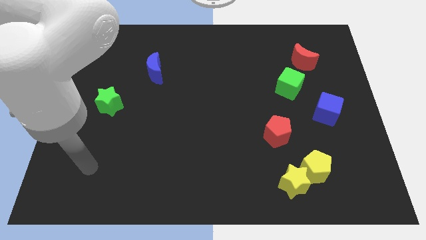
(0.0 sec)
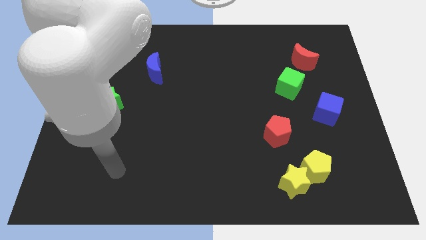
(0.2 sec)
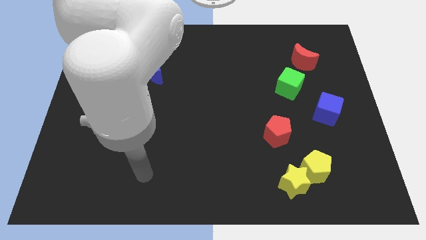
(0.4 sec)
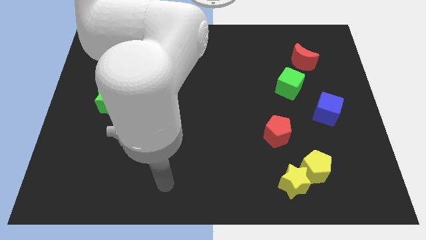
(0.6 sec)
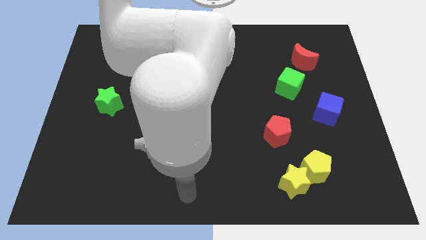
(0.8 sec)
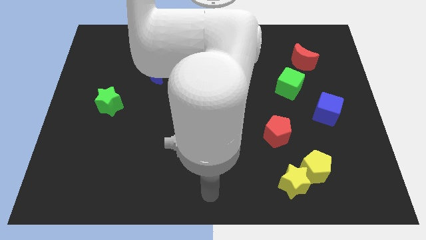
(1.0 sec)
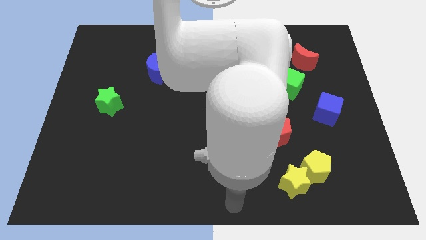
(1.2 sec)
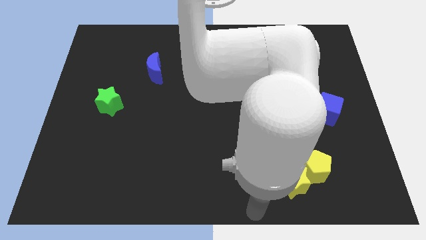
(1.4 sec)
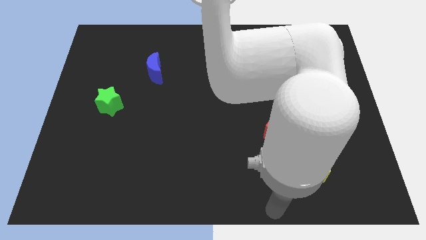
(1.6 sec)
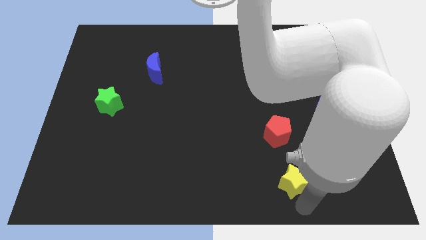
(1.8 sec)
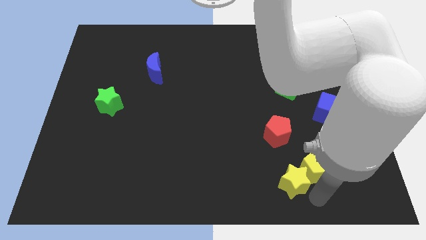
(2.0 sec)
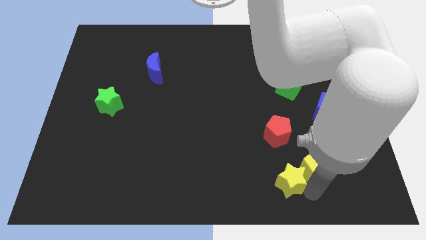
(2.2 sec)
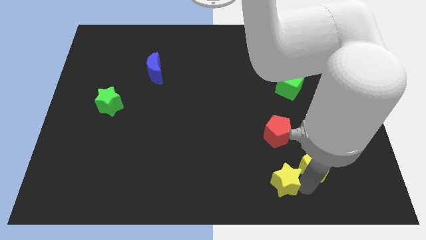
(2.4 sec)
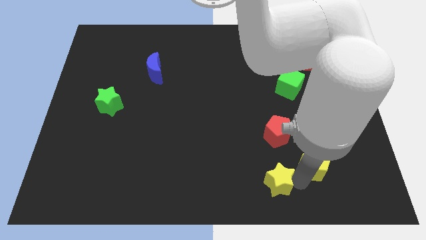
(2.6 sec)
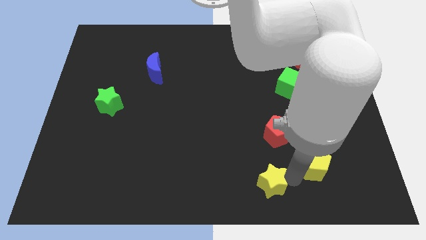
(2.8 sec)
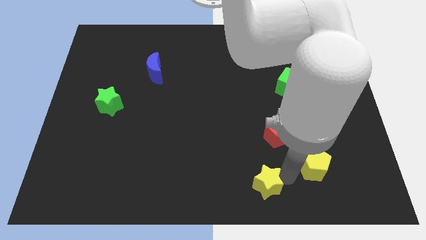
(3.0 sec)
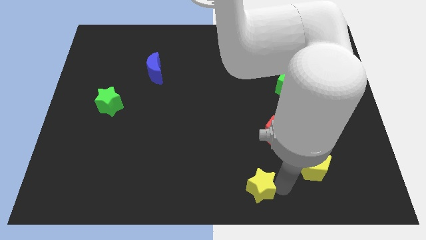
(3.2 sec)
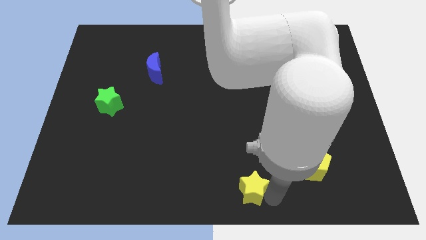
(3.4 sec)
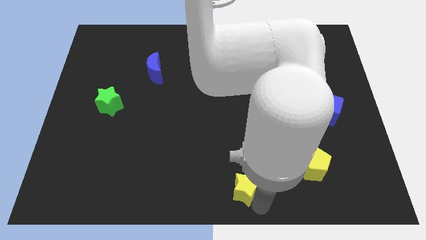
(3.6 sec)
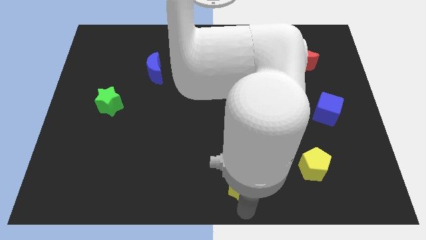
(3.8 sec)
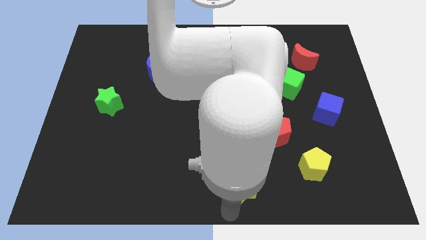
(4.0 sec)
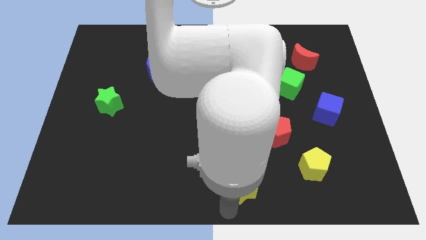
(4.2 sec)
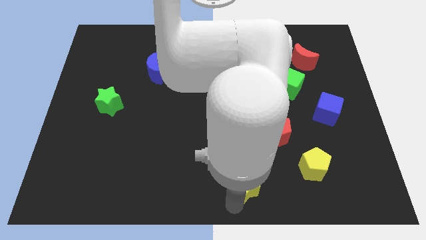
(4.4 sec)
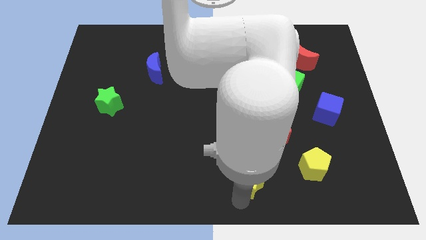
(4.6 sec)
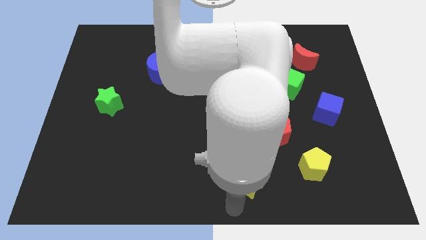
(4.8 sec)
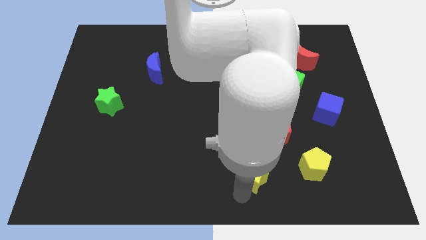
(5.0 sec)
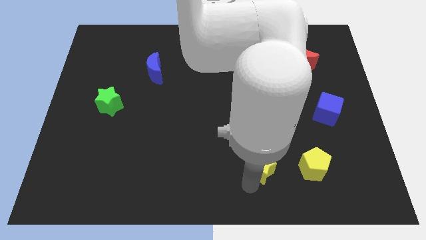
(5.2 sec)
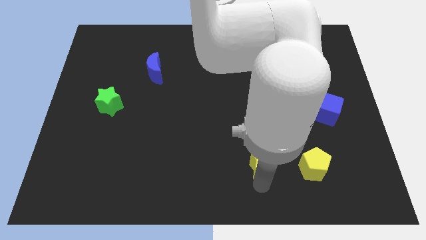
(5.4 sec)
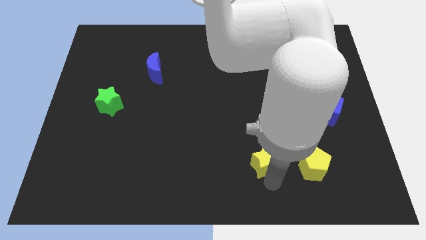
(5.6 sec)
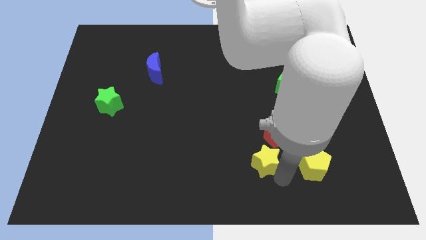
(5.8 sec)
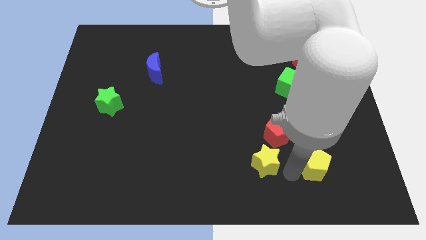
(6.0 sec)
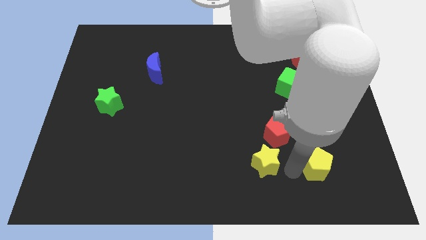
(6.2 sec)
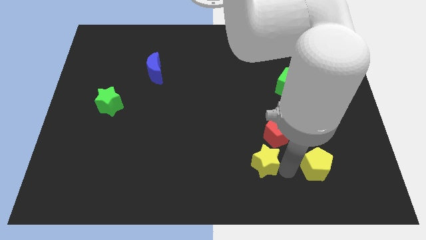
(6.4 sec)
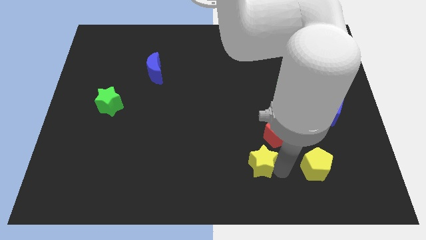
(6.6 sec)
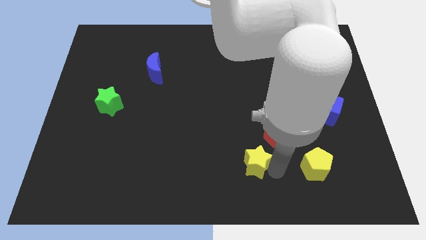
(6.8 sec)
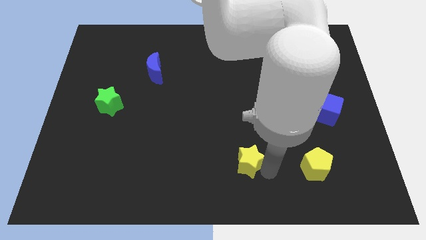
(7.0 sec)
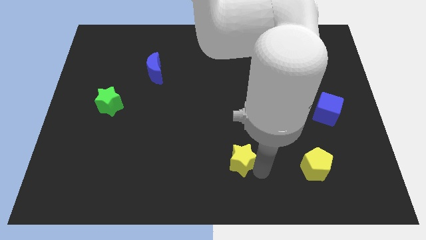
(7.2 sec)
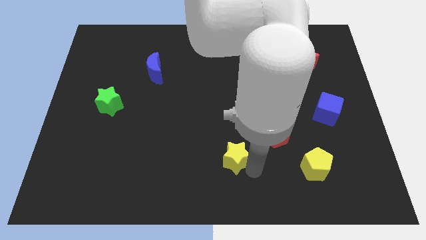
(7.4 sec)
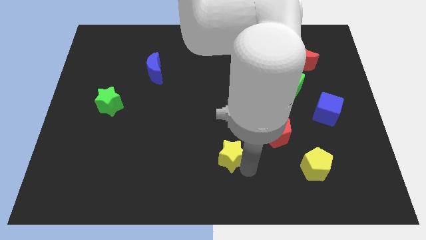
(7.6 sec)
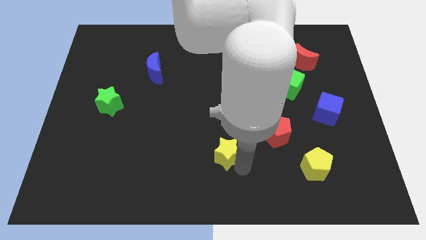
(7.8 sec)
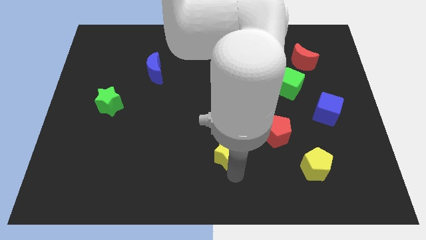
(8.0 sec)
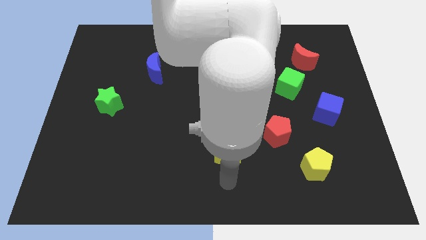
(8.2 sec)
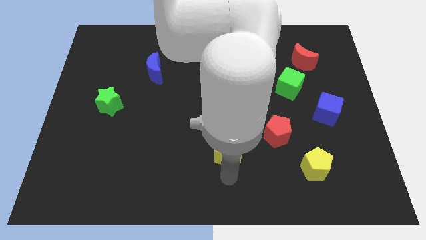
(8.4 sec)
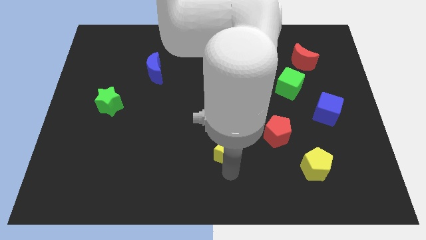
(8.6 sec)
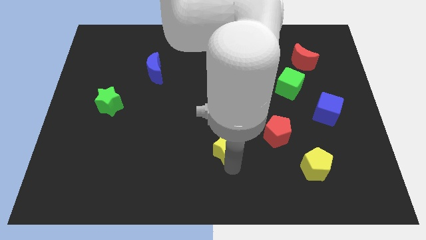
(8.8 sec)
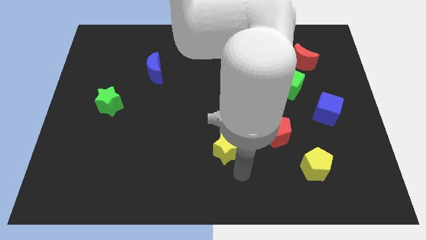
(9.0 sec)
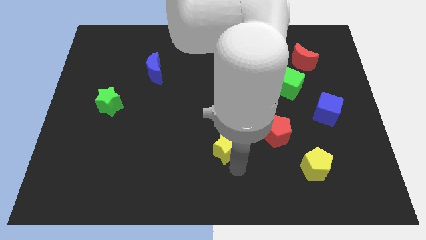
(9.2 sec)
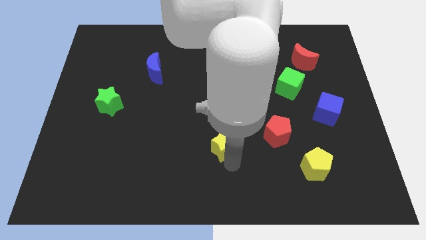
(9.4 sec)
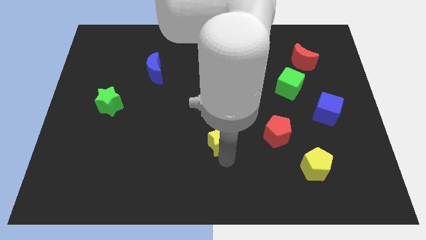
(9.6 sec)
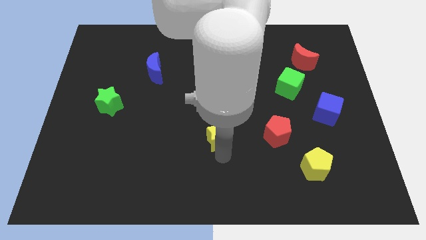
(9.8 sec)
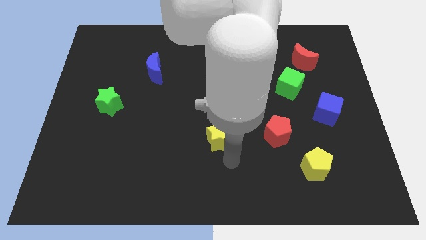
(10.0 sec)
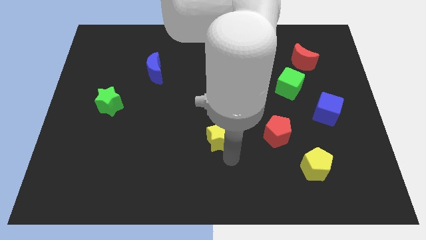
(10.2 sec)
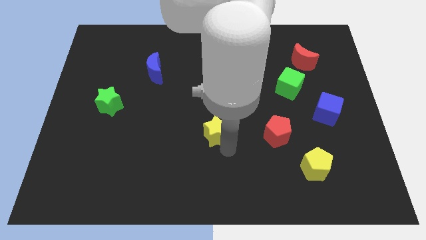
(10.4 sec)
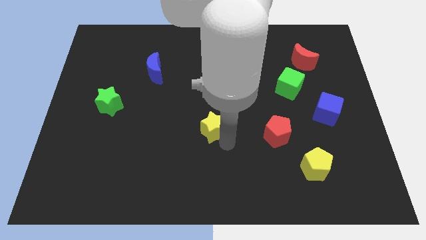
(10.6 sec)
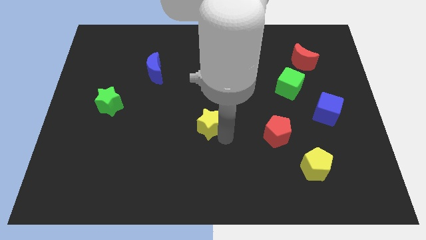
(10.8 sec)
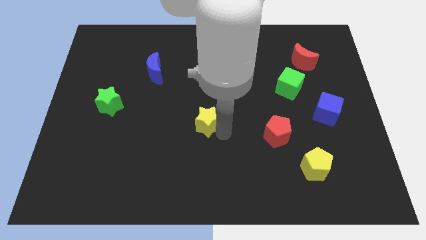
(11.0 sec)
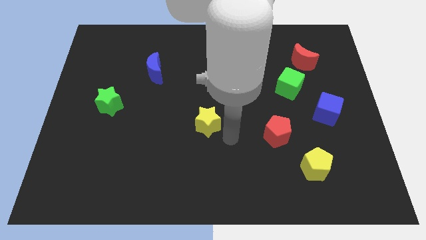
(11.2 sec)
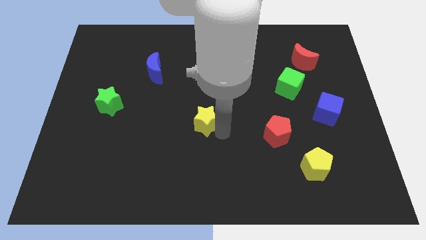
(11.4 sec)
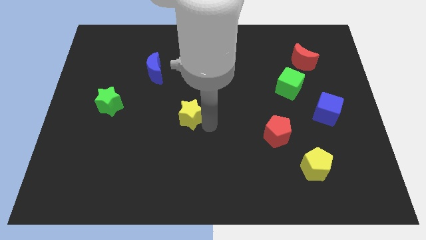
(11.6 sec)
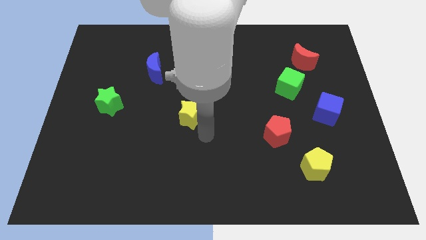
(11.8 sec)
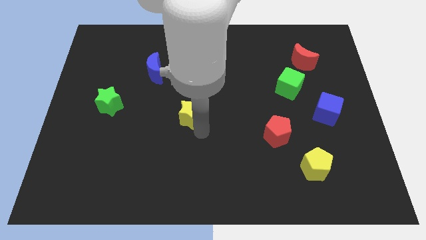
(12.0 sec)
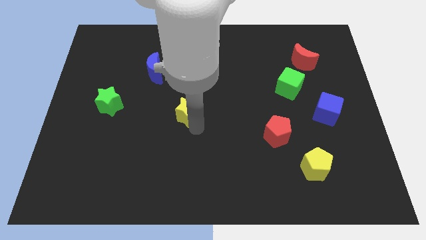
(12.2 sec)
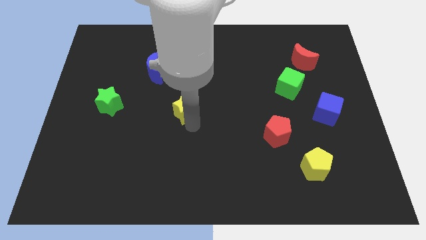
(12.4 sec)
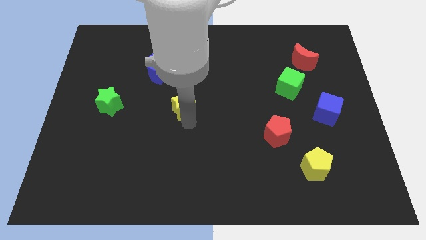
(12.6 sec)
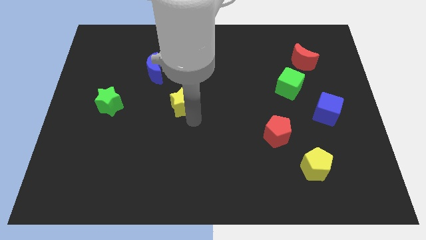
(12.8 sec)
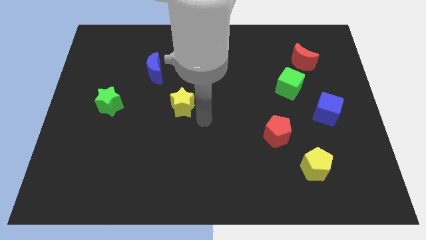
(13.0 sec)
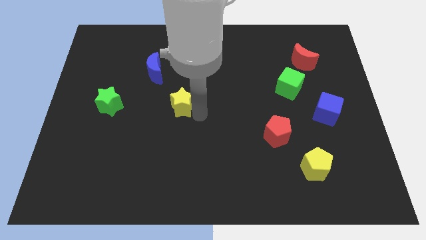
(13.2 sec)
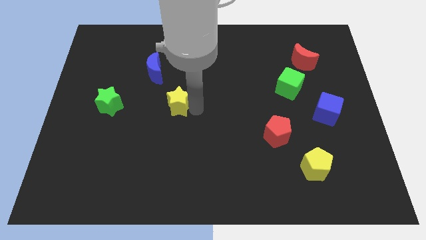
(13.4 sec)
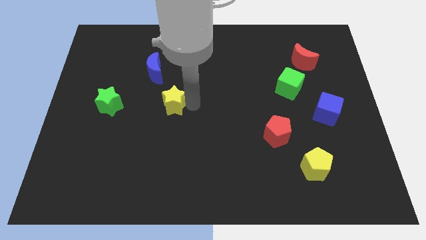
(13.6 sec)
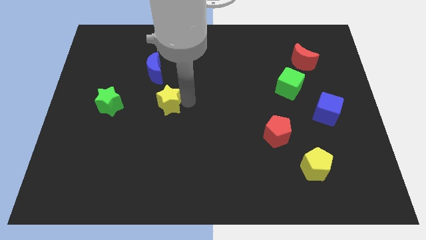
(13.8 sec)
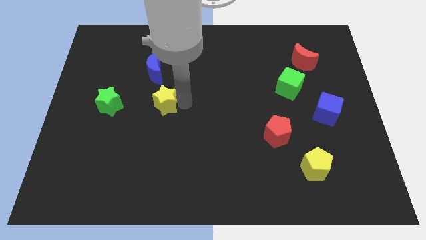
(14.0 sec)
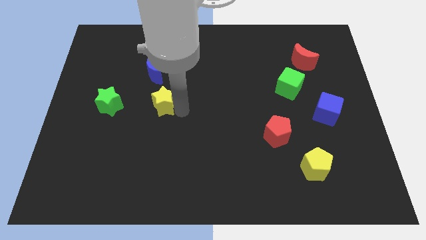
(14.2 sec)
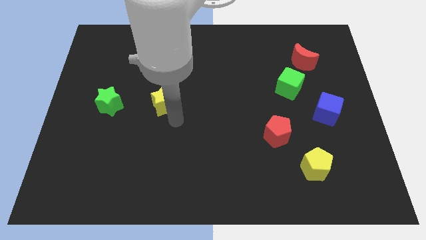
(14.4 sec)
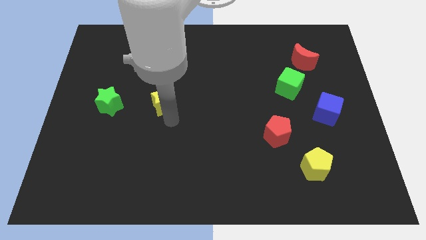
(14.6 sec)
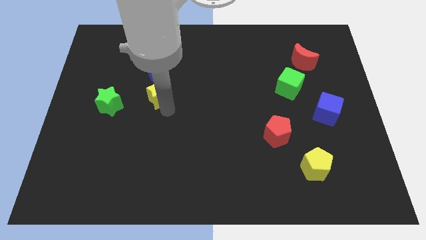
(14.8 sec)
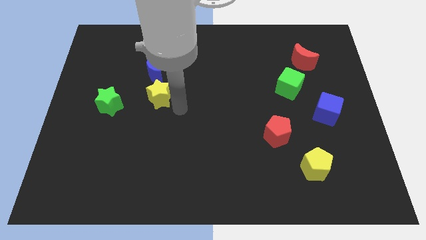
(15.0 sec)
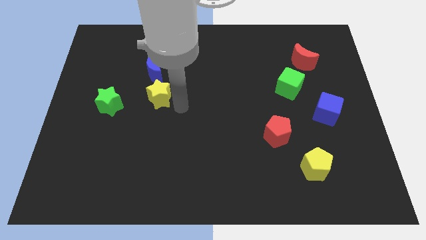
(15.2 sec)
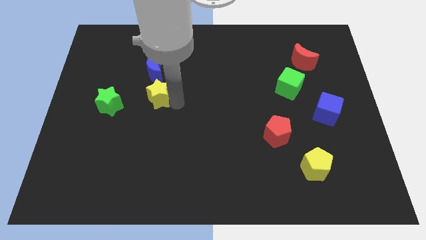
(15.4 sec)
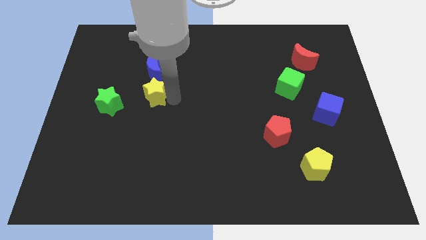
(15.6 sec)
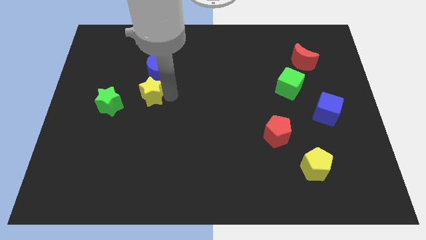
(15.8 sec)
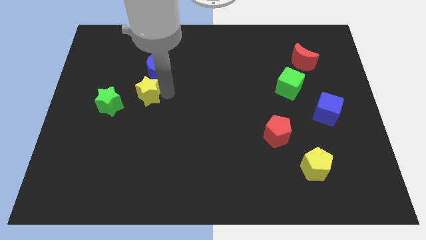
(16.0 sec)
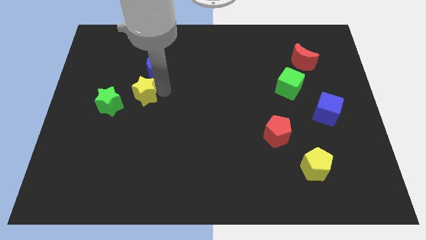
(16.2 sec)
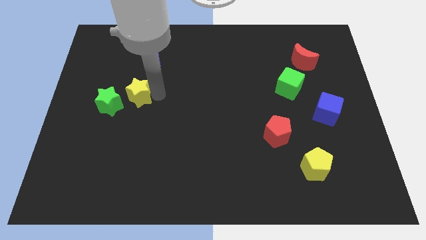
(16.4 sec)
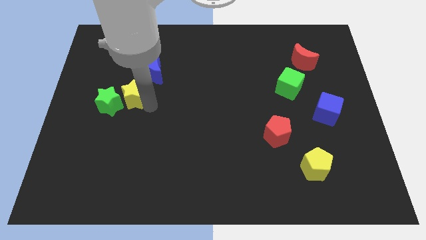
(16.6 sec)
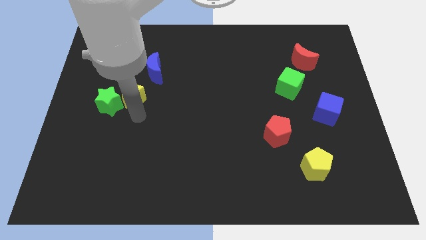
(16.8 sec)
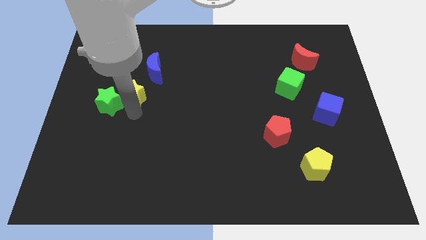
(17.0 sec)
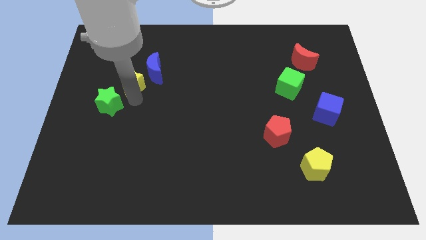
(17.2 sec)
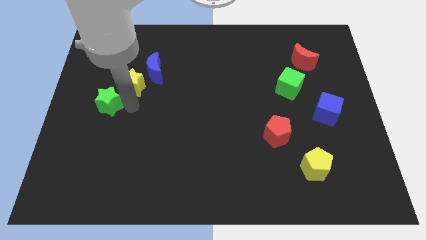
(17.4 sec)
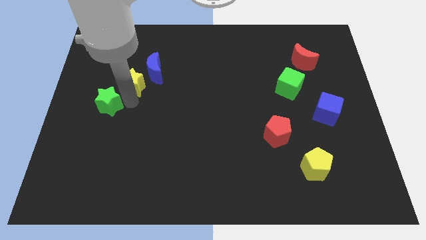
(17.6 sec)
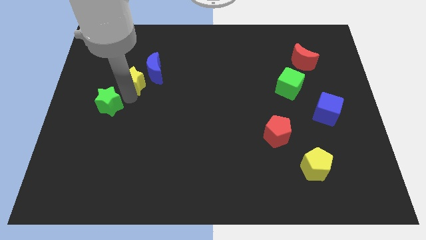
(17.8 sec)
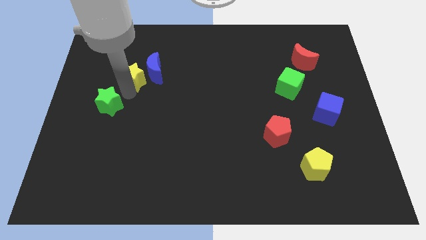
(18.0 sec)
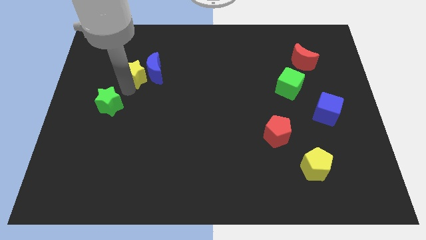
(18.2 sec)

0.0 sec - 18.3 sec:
put the yellow star diagonally up and to the left of the blue moon
